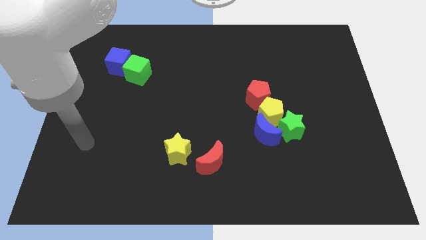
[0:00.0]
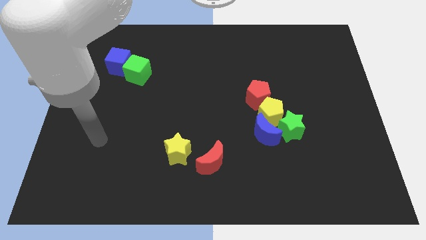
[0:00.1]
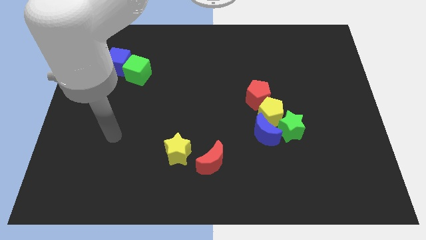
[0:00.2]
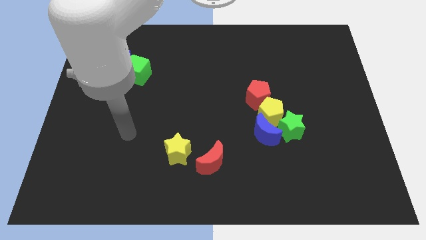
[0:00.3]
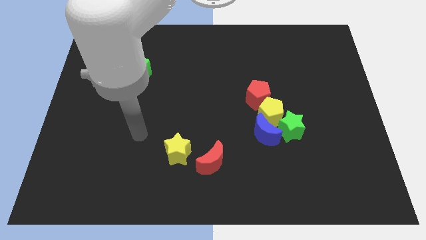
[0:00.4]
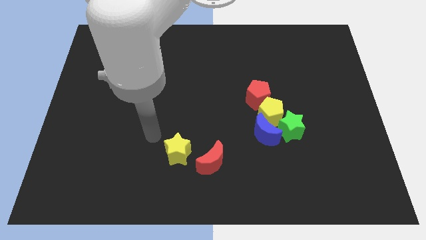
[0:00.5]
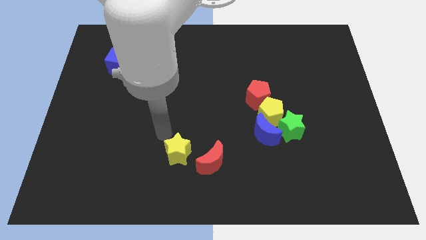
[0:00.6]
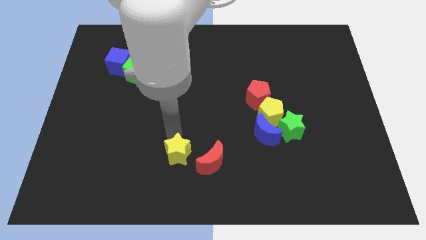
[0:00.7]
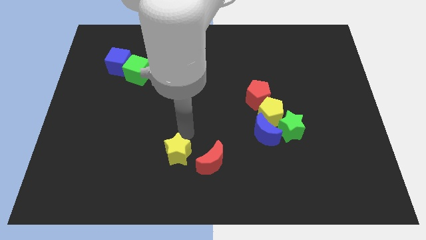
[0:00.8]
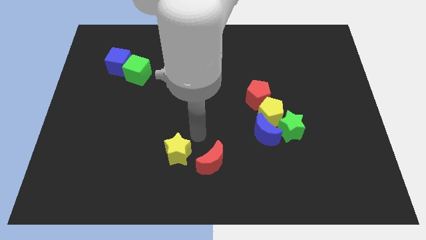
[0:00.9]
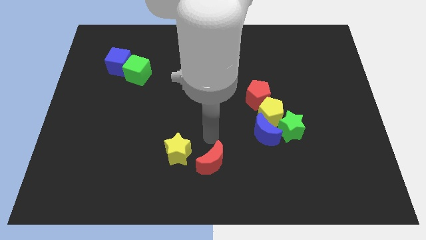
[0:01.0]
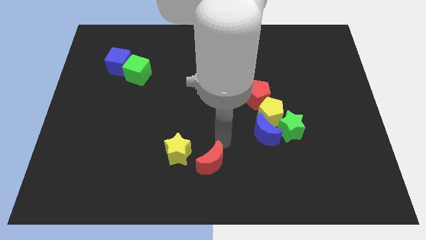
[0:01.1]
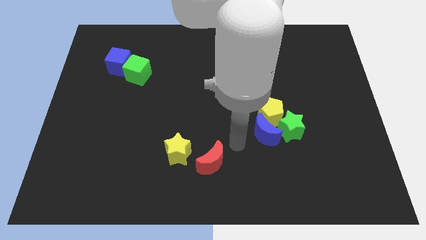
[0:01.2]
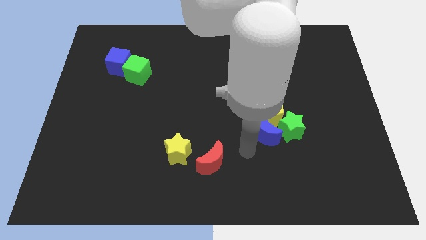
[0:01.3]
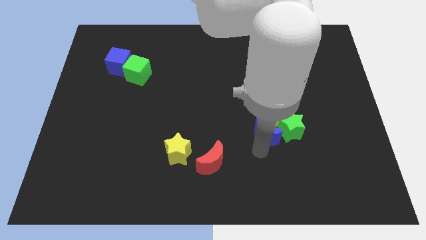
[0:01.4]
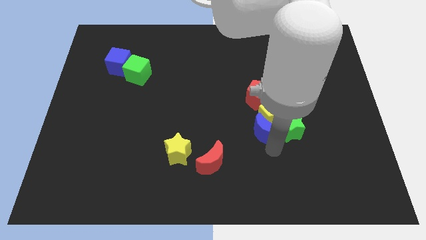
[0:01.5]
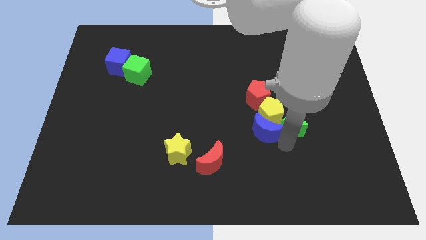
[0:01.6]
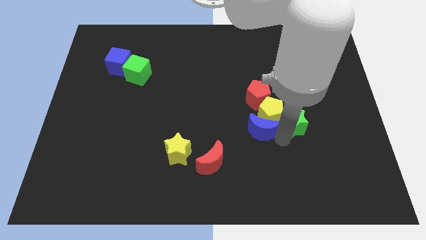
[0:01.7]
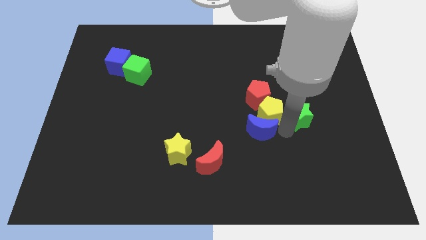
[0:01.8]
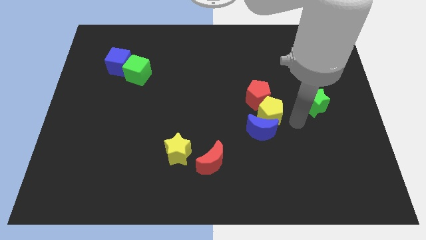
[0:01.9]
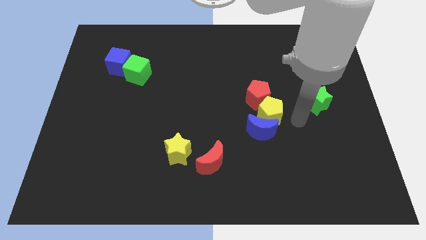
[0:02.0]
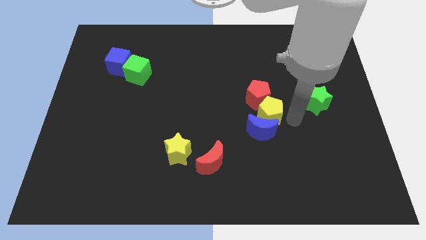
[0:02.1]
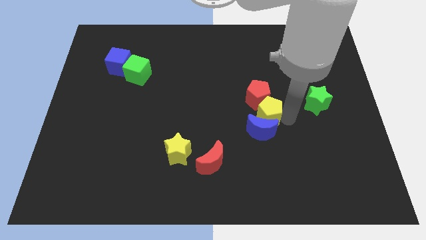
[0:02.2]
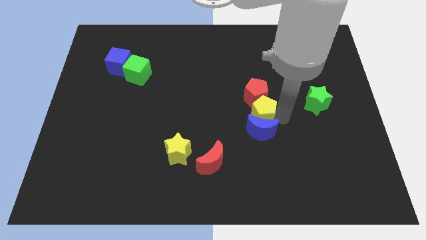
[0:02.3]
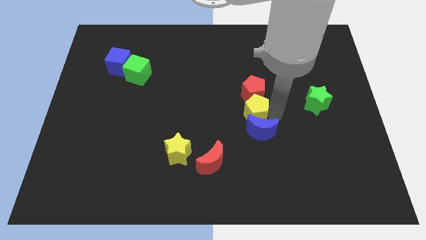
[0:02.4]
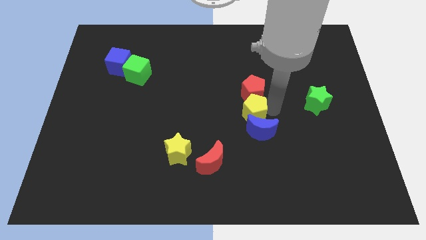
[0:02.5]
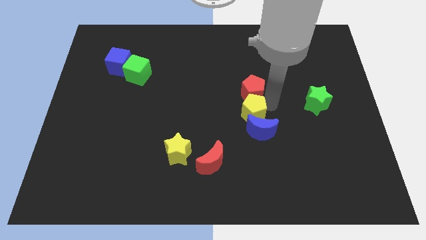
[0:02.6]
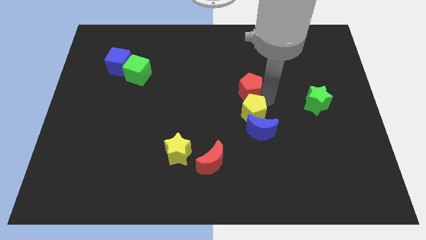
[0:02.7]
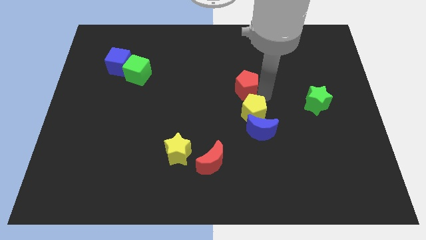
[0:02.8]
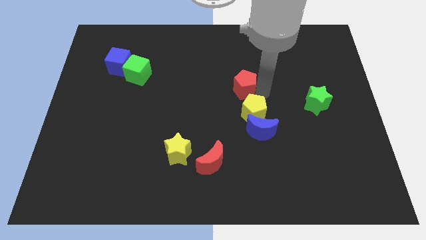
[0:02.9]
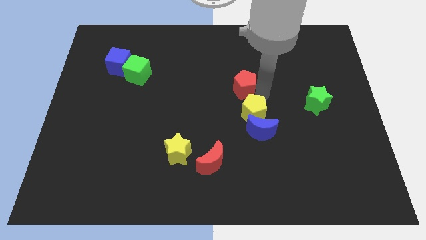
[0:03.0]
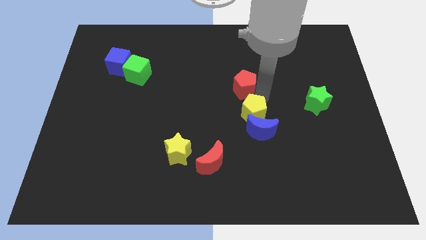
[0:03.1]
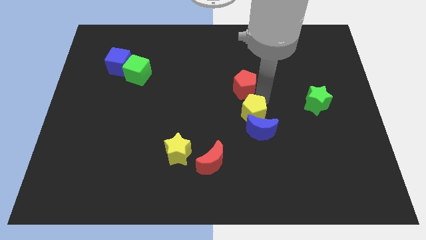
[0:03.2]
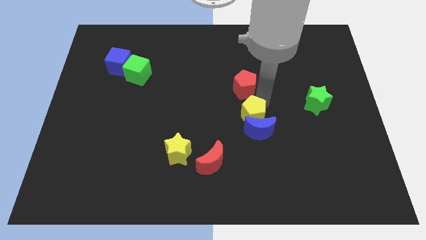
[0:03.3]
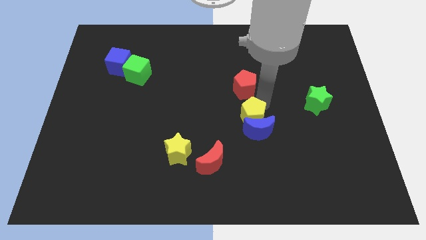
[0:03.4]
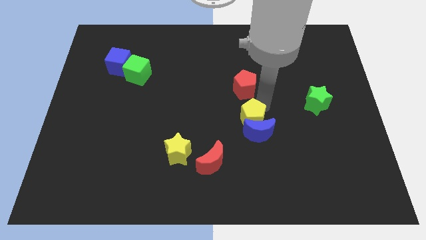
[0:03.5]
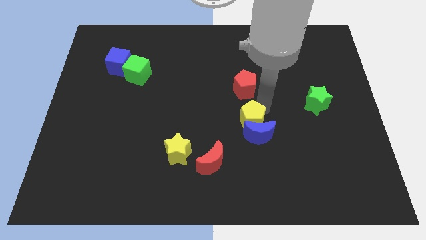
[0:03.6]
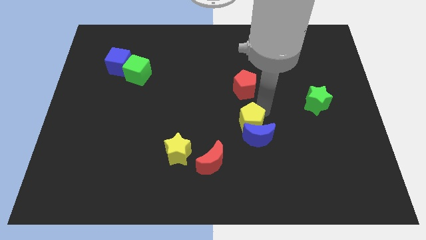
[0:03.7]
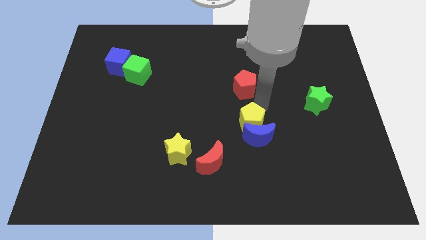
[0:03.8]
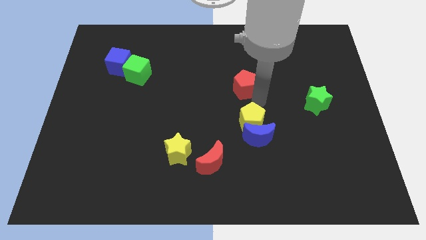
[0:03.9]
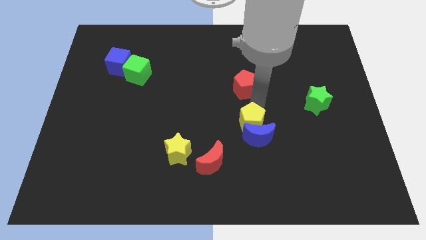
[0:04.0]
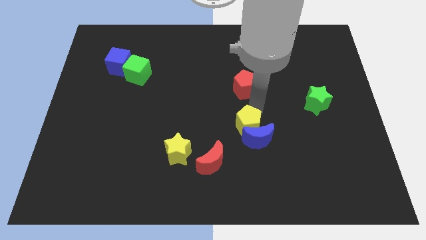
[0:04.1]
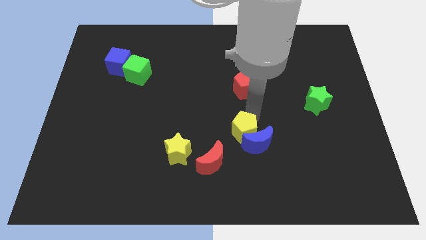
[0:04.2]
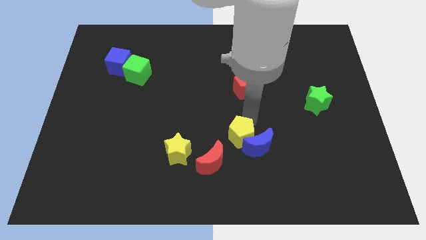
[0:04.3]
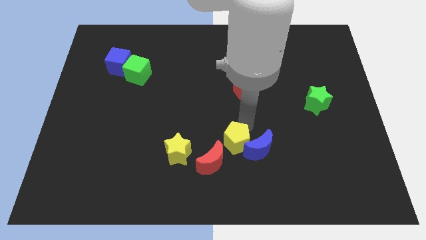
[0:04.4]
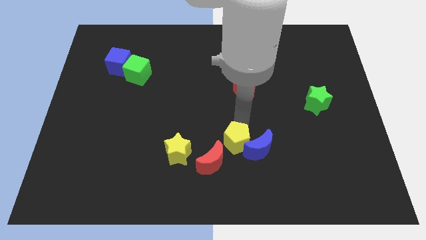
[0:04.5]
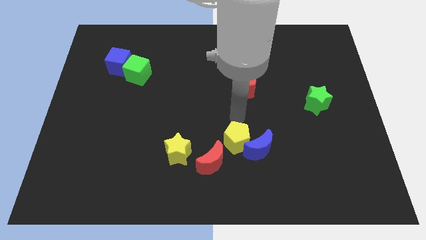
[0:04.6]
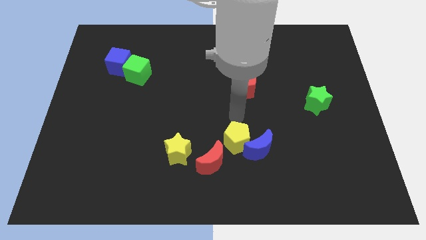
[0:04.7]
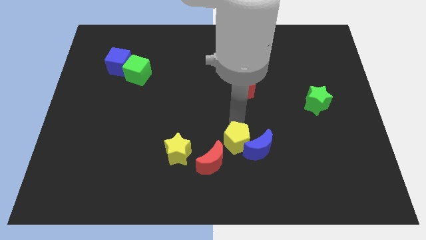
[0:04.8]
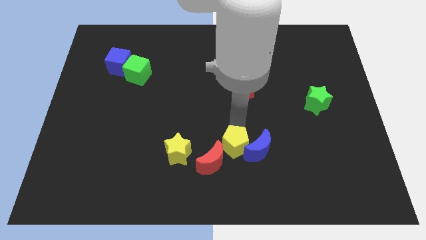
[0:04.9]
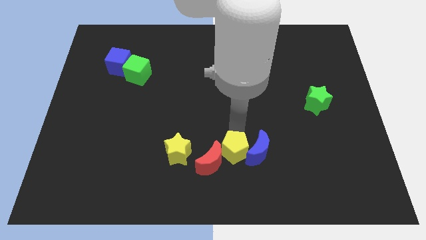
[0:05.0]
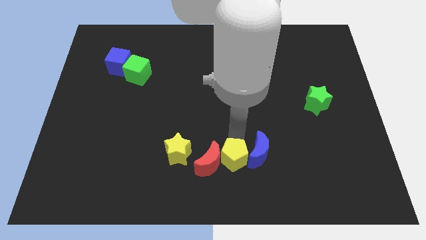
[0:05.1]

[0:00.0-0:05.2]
move the yellow pentagon to the bottom side

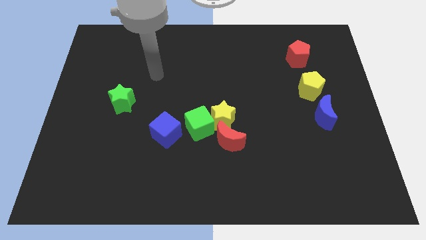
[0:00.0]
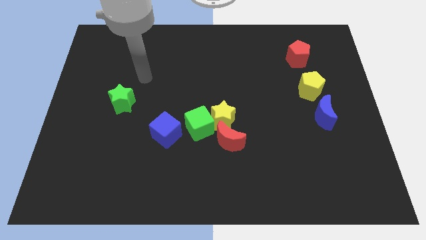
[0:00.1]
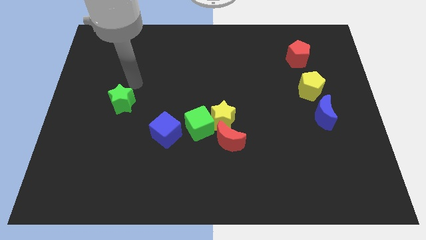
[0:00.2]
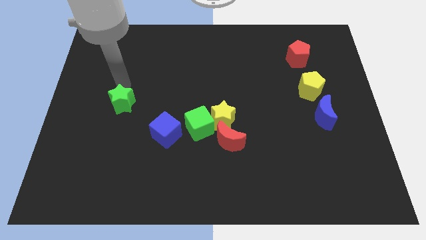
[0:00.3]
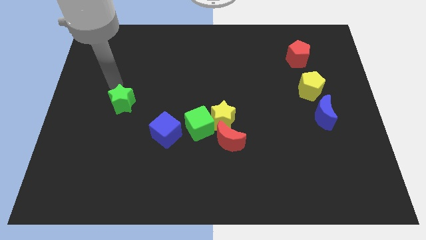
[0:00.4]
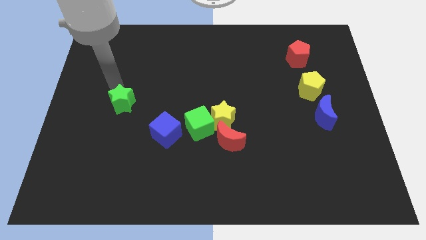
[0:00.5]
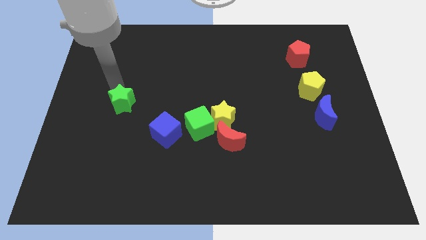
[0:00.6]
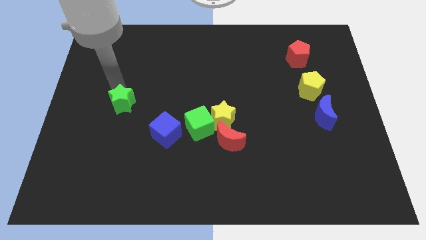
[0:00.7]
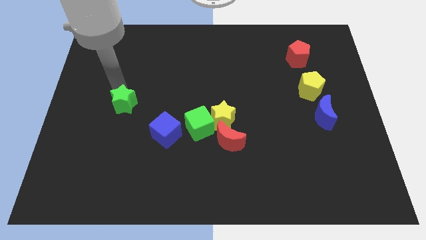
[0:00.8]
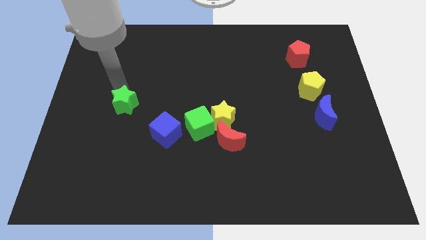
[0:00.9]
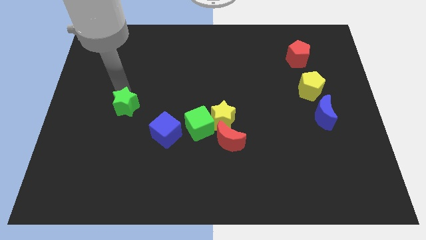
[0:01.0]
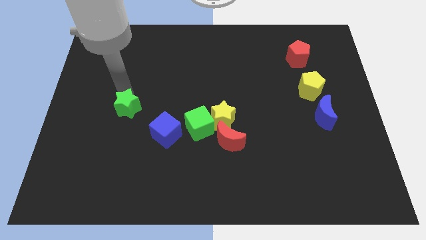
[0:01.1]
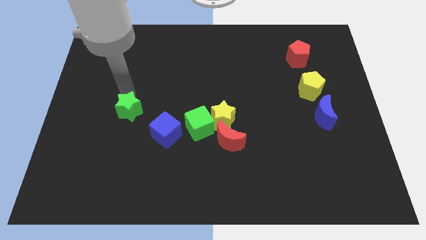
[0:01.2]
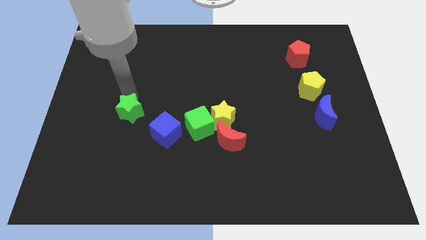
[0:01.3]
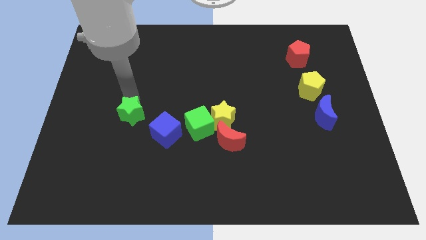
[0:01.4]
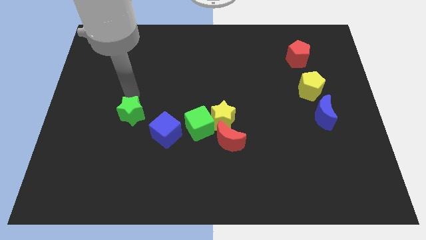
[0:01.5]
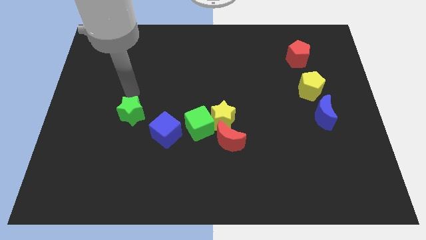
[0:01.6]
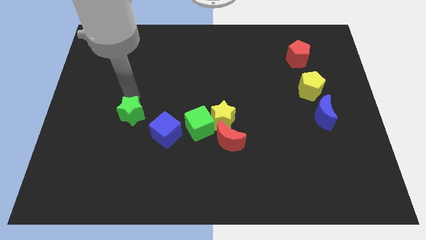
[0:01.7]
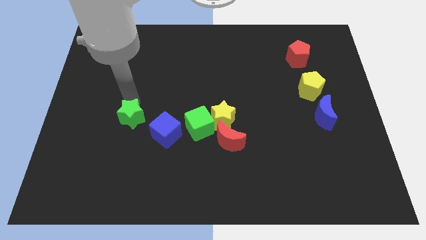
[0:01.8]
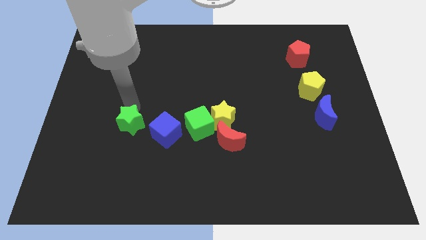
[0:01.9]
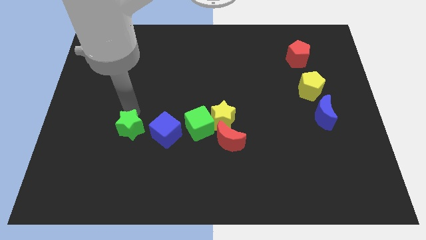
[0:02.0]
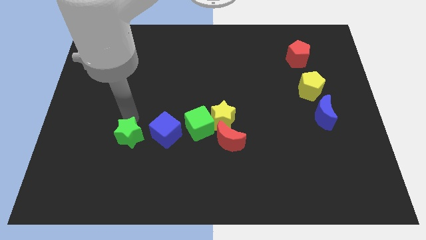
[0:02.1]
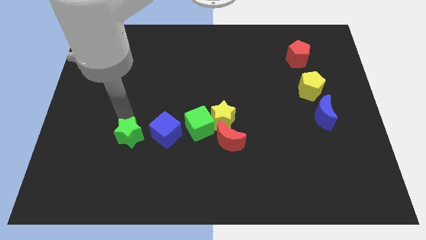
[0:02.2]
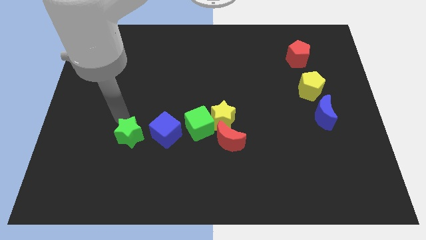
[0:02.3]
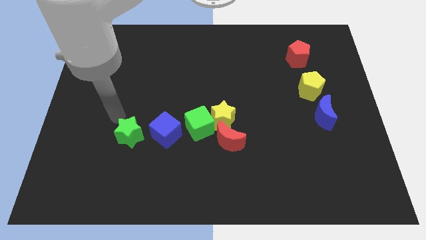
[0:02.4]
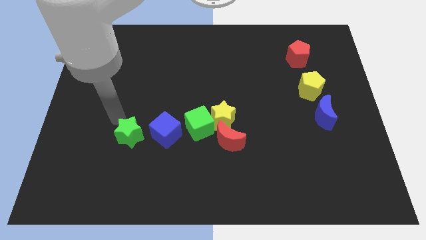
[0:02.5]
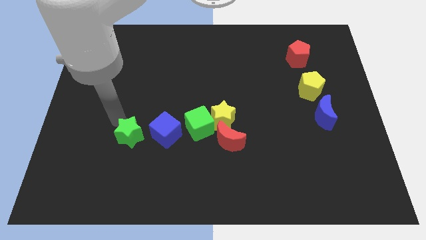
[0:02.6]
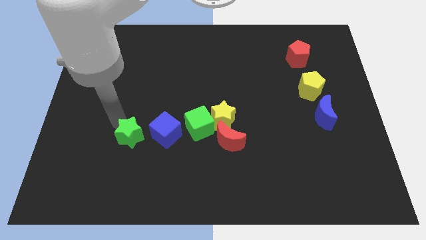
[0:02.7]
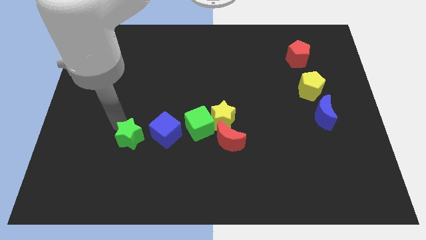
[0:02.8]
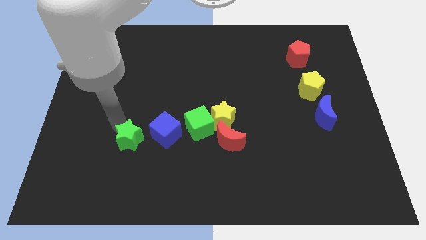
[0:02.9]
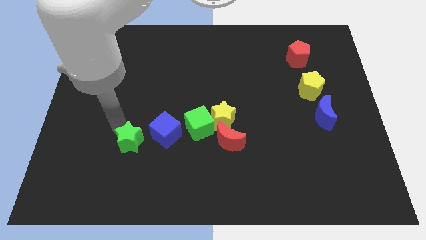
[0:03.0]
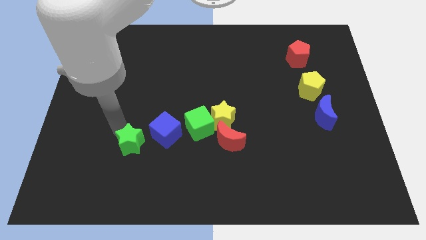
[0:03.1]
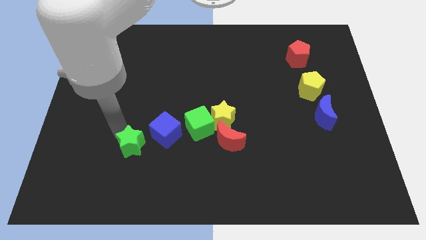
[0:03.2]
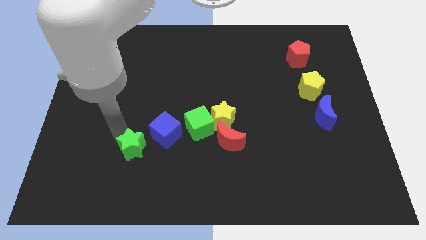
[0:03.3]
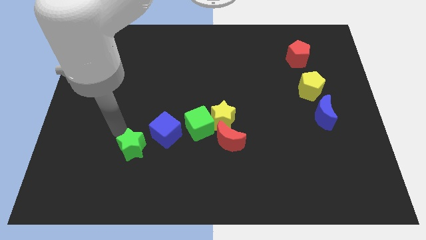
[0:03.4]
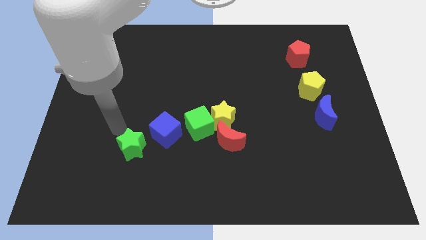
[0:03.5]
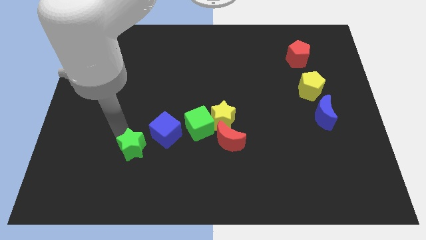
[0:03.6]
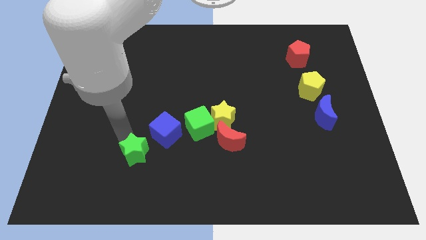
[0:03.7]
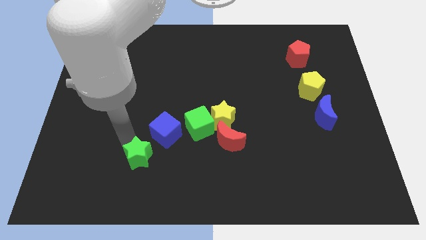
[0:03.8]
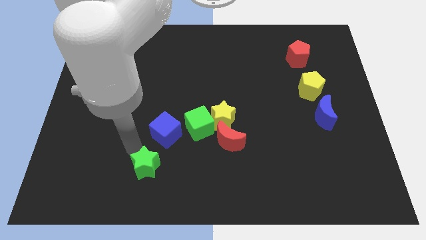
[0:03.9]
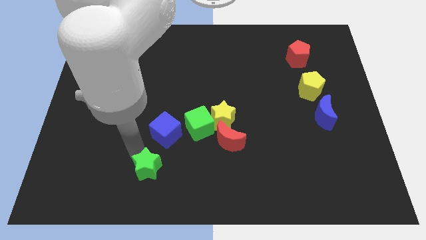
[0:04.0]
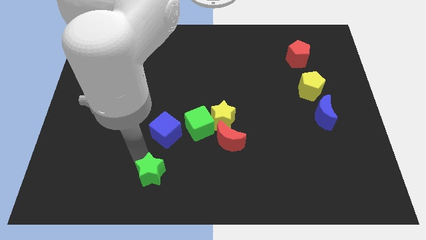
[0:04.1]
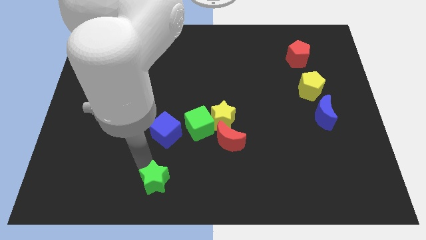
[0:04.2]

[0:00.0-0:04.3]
slide the green star to the bottom
